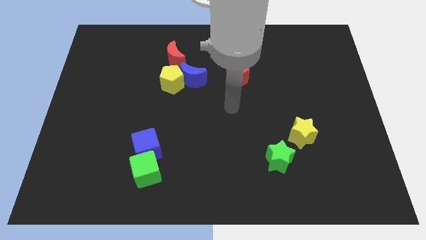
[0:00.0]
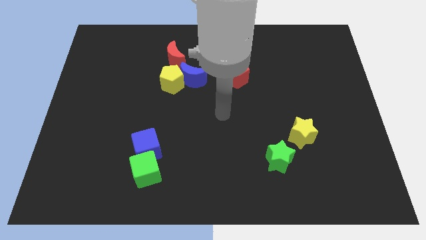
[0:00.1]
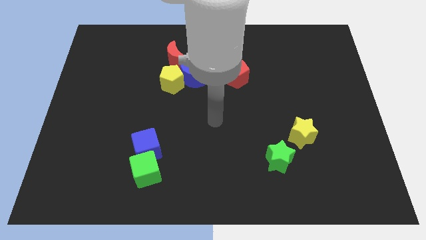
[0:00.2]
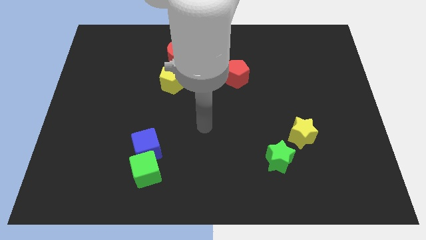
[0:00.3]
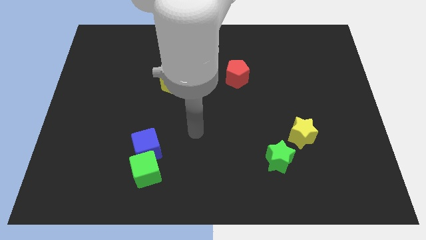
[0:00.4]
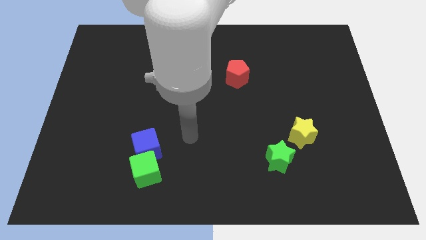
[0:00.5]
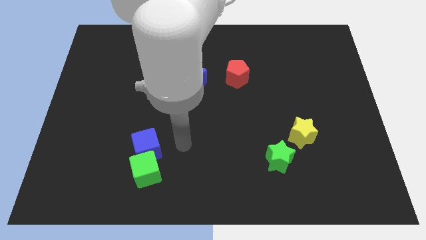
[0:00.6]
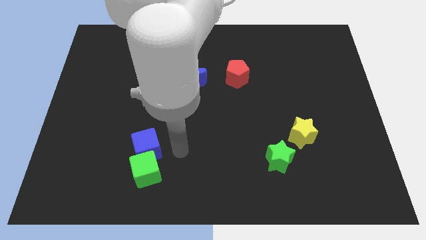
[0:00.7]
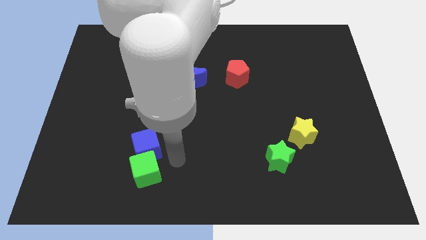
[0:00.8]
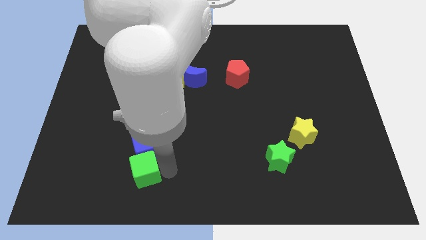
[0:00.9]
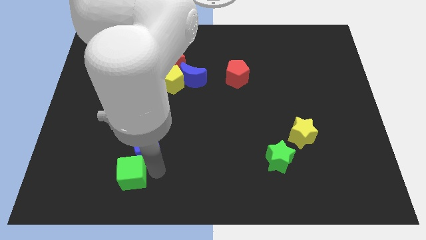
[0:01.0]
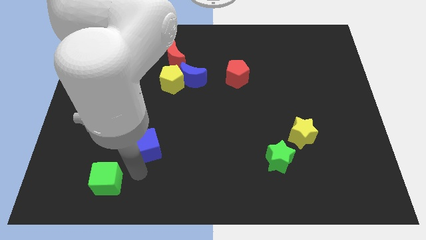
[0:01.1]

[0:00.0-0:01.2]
pull the blue cube apart from the green cube

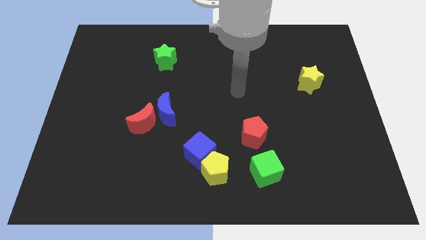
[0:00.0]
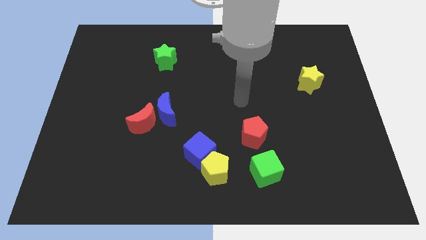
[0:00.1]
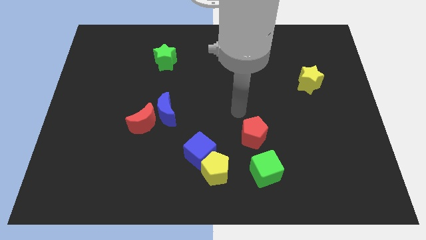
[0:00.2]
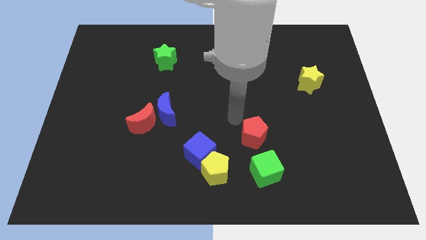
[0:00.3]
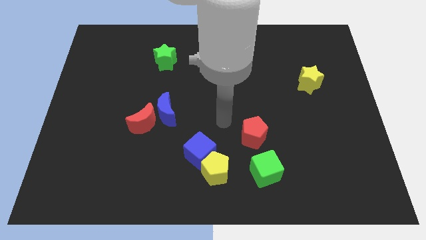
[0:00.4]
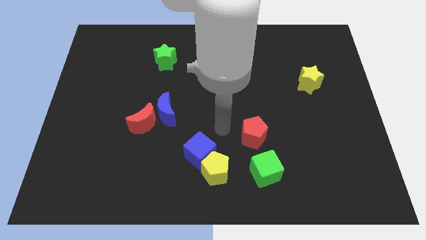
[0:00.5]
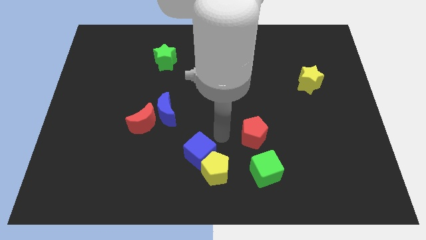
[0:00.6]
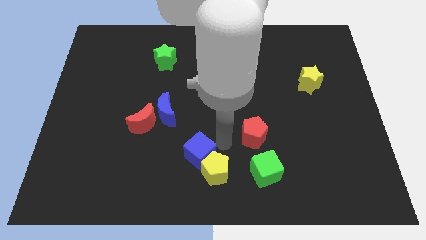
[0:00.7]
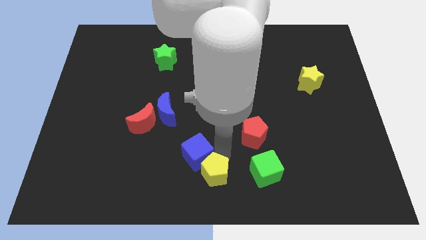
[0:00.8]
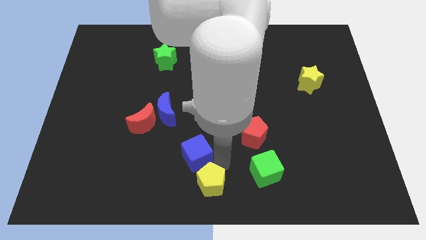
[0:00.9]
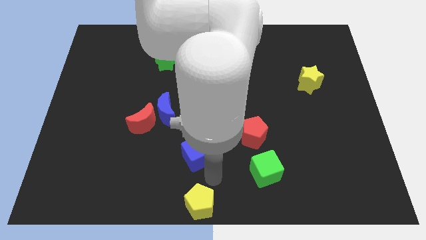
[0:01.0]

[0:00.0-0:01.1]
separate the blue cube from the yellow pentagon

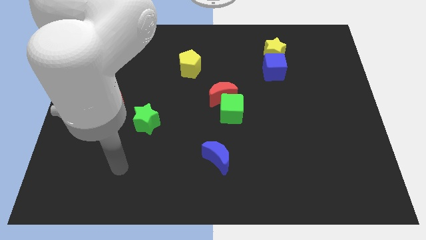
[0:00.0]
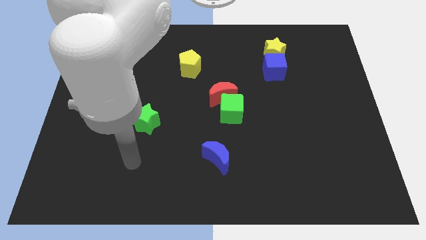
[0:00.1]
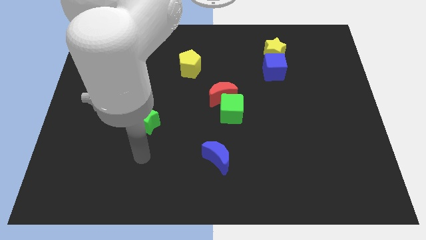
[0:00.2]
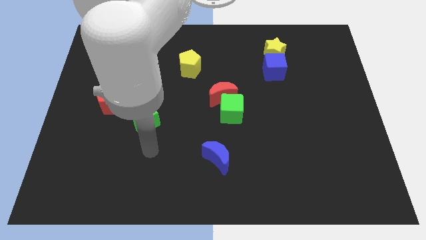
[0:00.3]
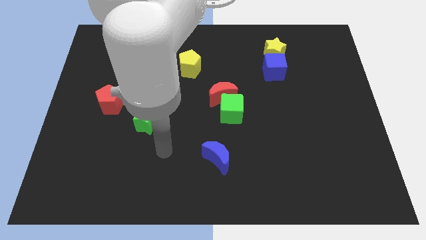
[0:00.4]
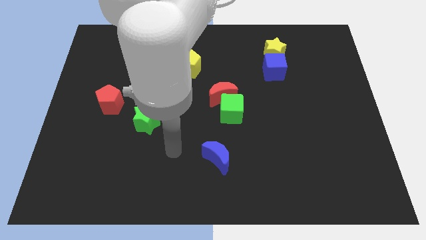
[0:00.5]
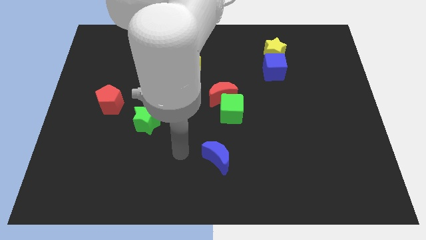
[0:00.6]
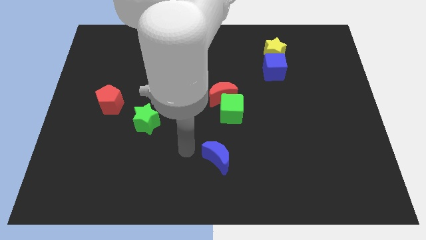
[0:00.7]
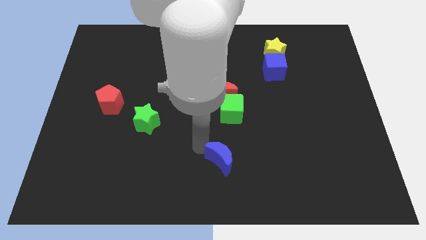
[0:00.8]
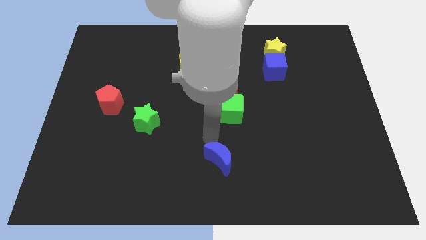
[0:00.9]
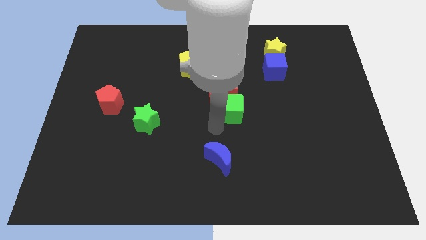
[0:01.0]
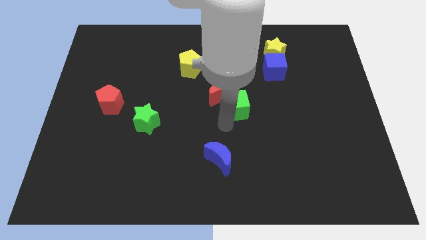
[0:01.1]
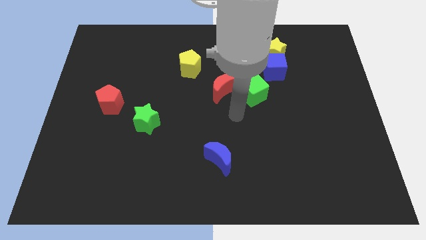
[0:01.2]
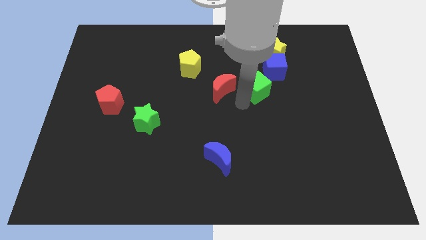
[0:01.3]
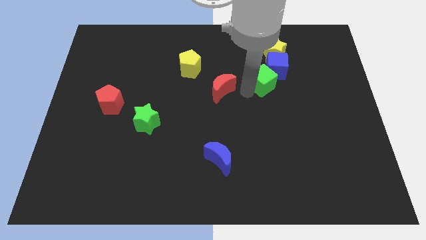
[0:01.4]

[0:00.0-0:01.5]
pull the red moon apart from the green cube

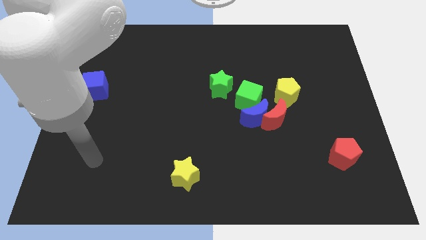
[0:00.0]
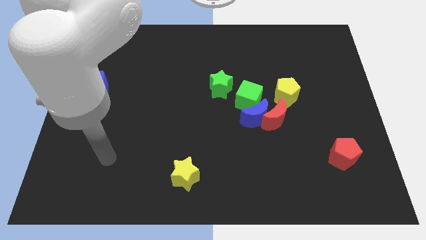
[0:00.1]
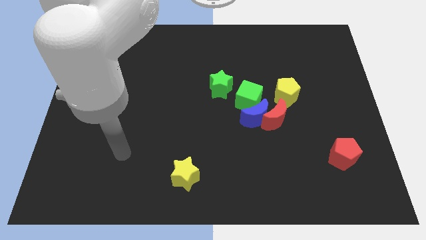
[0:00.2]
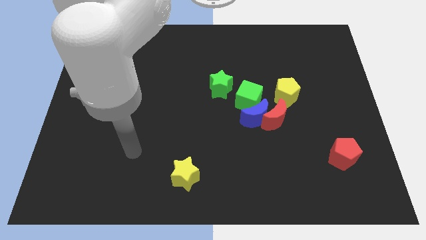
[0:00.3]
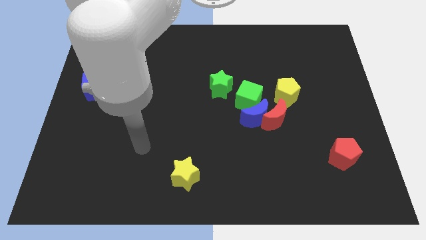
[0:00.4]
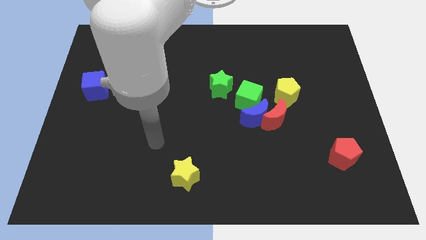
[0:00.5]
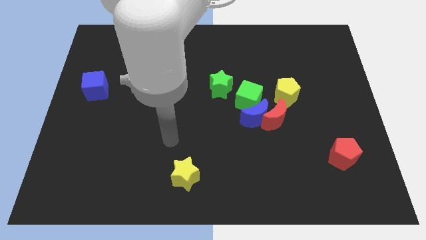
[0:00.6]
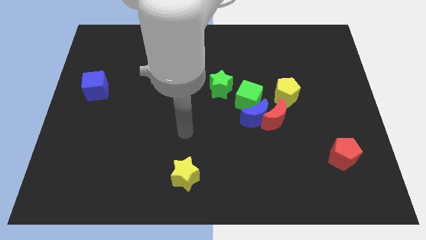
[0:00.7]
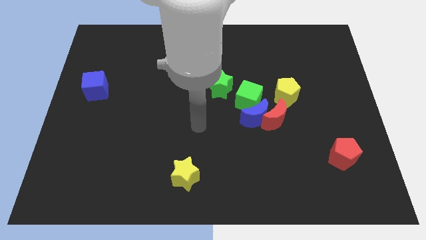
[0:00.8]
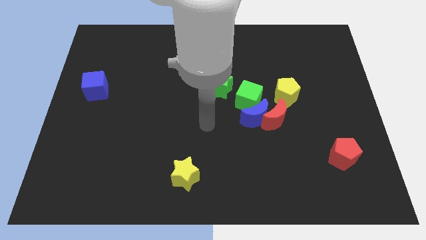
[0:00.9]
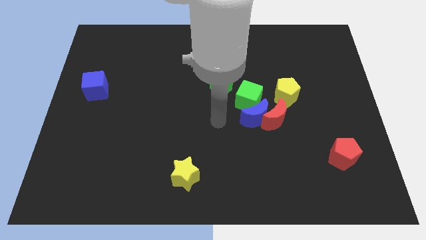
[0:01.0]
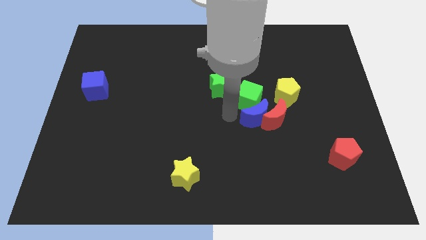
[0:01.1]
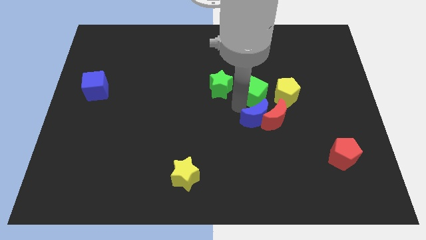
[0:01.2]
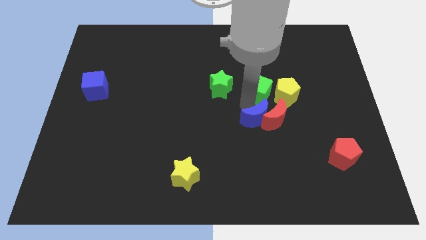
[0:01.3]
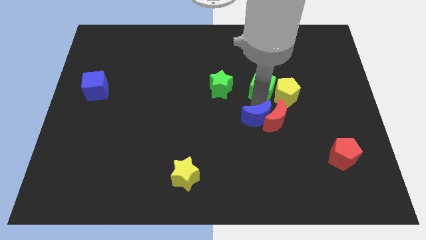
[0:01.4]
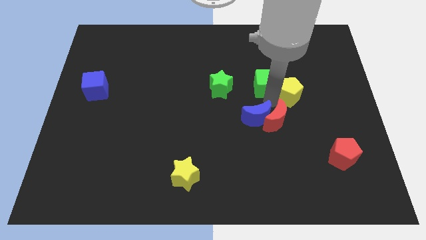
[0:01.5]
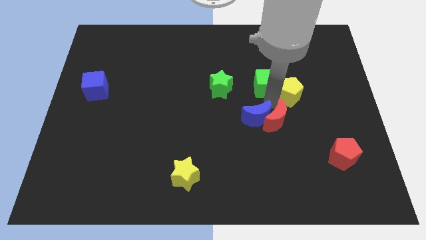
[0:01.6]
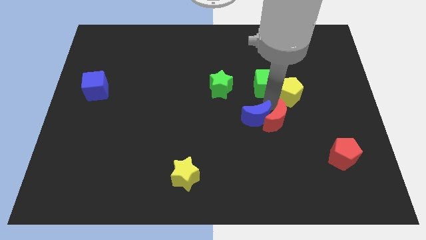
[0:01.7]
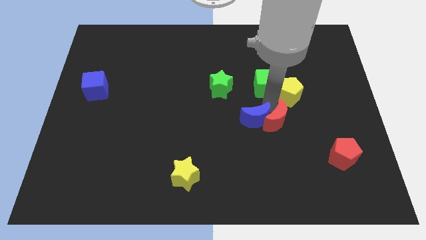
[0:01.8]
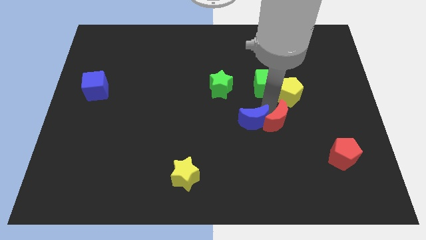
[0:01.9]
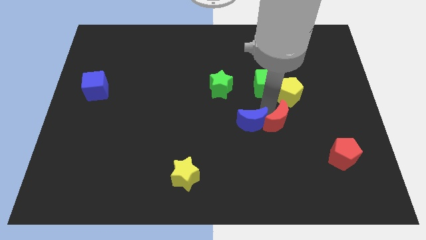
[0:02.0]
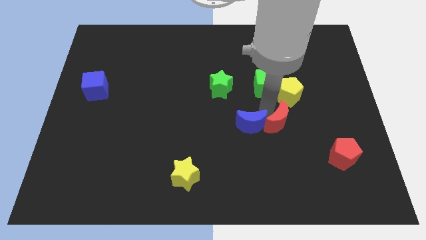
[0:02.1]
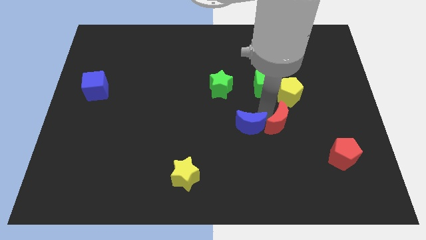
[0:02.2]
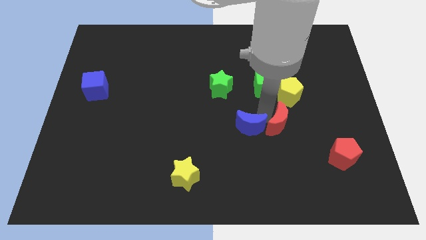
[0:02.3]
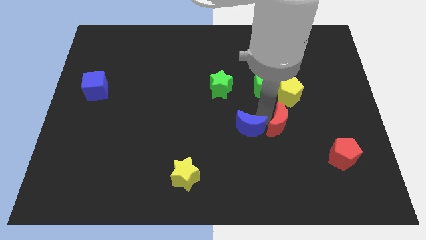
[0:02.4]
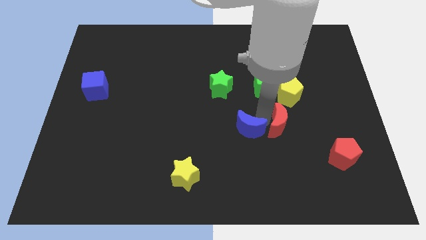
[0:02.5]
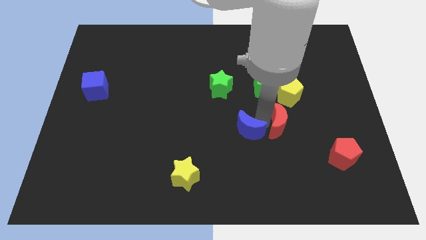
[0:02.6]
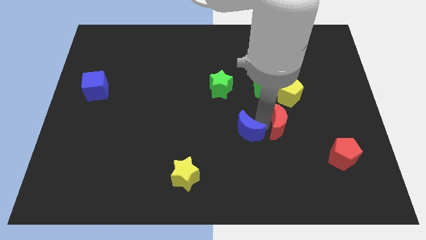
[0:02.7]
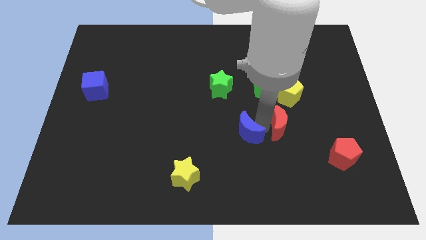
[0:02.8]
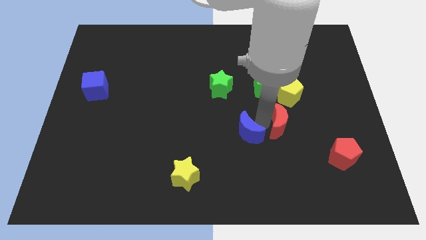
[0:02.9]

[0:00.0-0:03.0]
move the blue moon away from the red moon and green cube

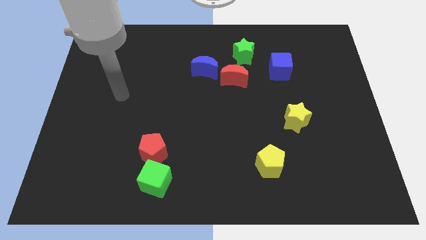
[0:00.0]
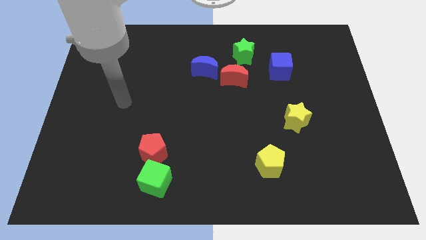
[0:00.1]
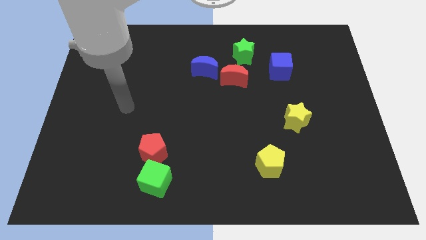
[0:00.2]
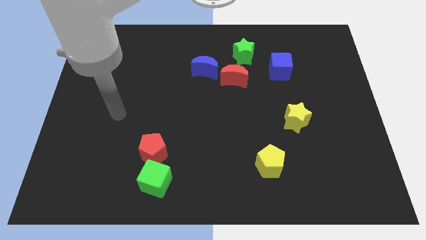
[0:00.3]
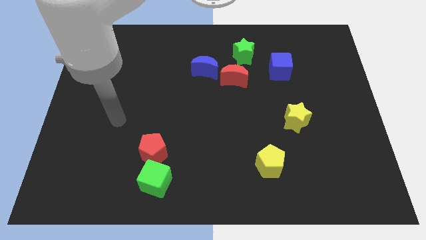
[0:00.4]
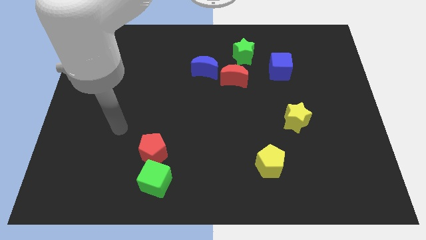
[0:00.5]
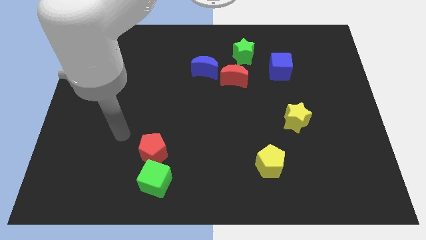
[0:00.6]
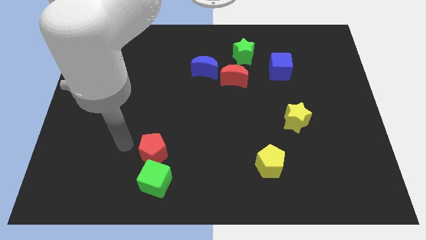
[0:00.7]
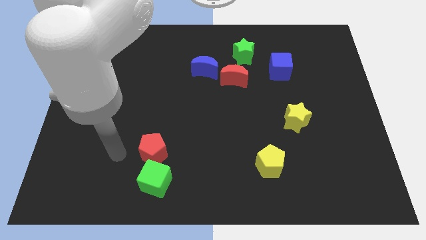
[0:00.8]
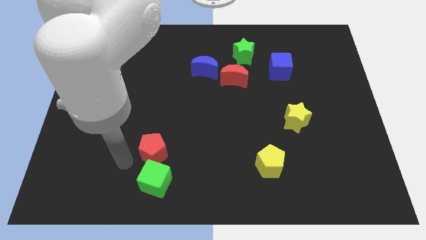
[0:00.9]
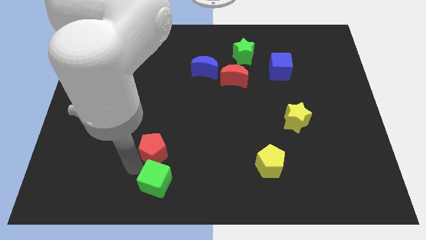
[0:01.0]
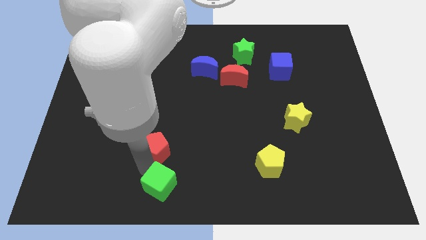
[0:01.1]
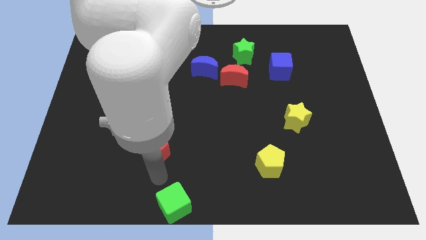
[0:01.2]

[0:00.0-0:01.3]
move the red pentagon away from the green cube

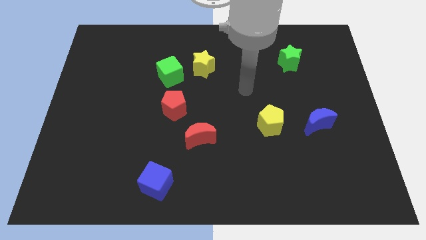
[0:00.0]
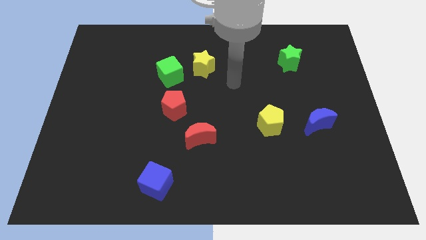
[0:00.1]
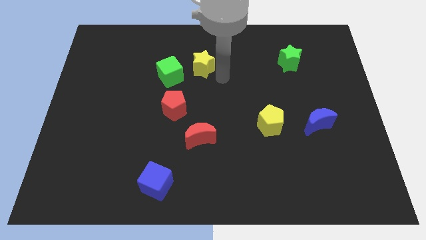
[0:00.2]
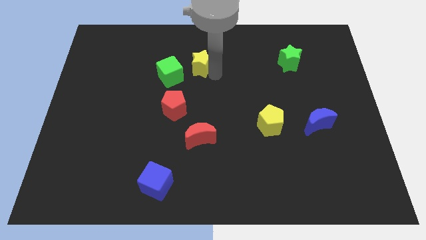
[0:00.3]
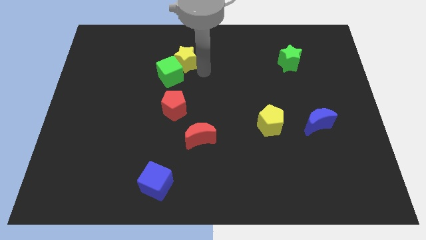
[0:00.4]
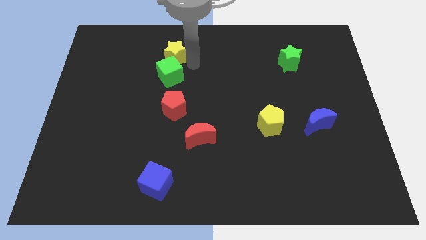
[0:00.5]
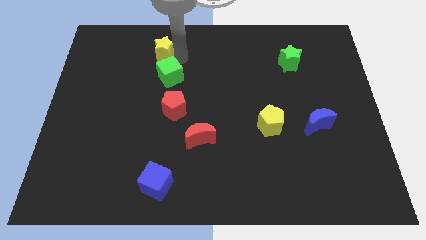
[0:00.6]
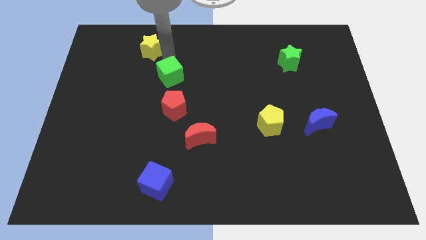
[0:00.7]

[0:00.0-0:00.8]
separate the green cube from the yellow star

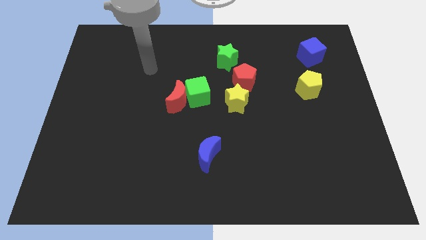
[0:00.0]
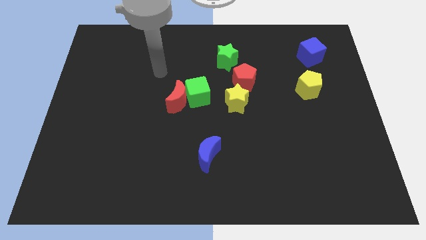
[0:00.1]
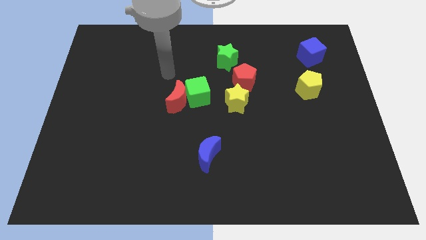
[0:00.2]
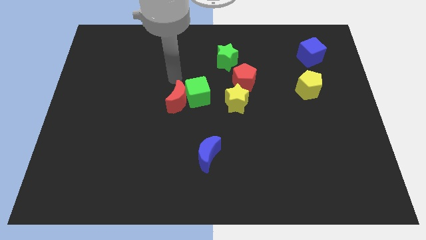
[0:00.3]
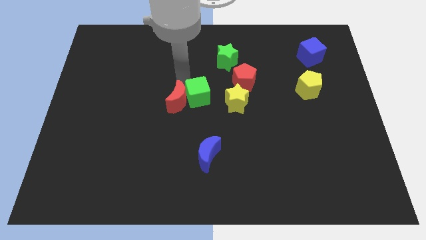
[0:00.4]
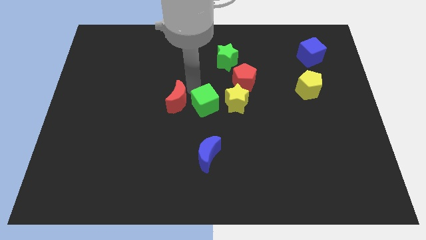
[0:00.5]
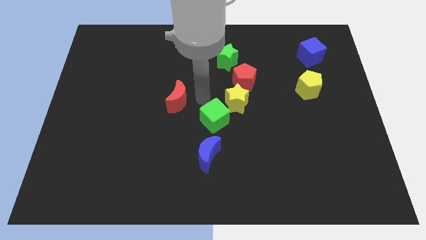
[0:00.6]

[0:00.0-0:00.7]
separate the red moon from the green cube
